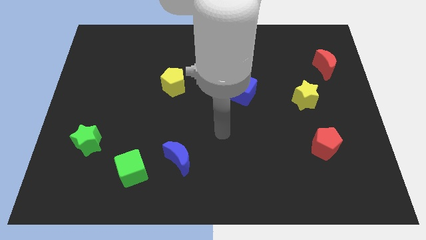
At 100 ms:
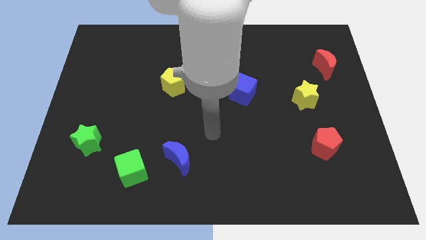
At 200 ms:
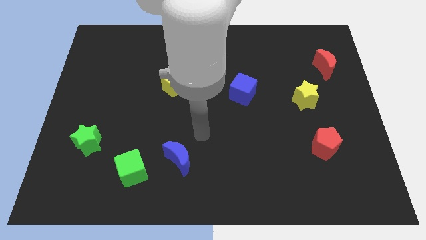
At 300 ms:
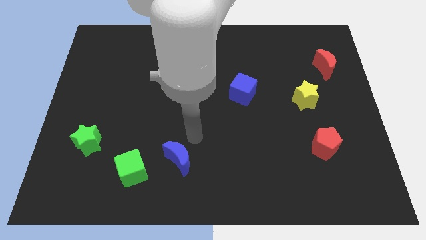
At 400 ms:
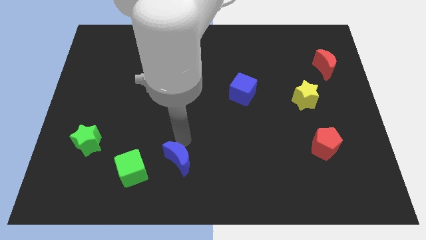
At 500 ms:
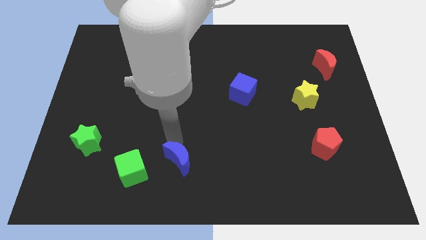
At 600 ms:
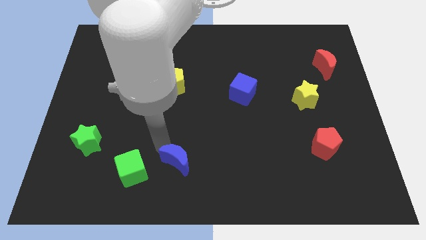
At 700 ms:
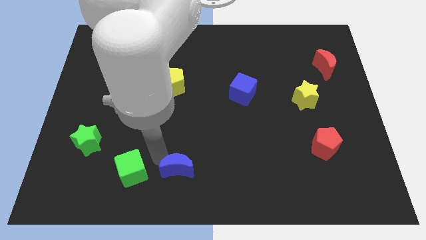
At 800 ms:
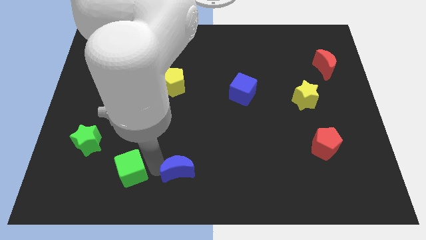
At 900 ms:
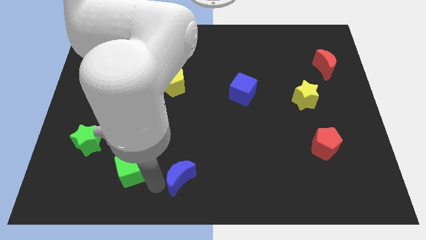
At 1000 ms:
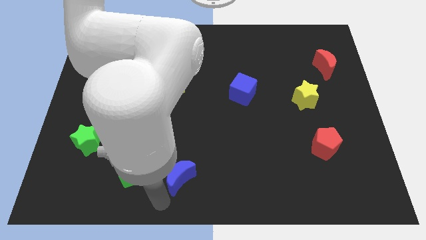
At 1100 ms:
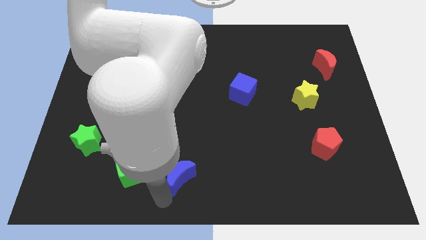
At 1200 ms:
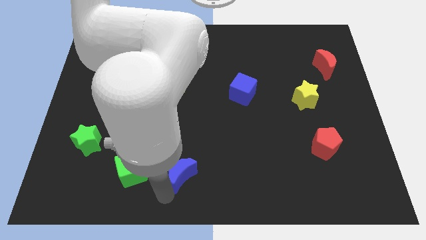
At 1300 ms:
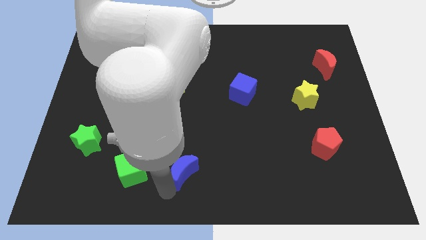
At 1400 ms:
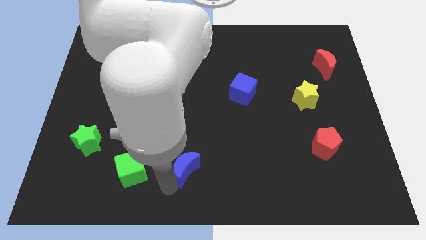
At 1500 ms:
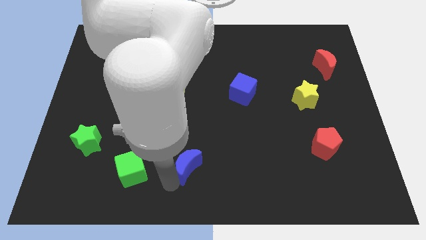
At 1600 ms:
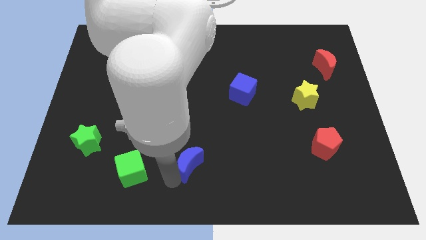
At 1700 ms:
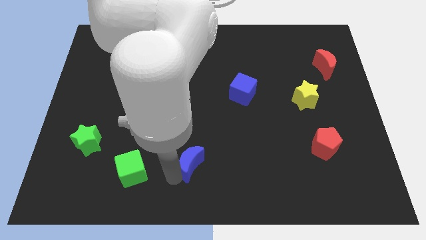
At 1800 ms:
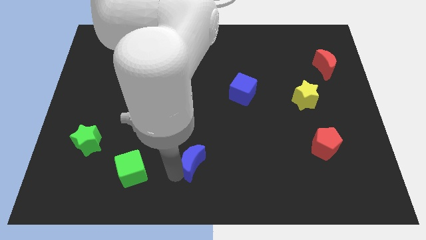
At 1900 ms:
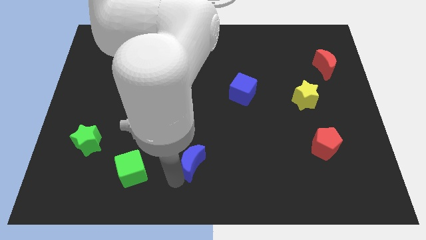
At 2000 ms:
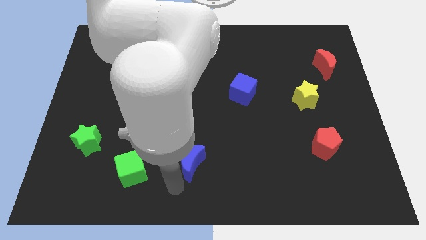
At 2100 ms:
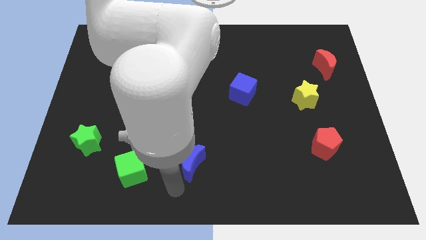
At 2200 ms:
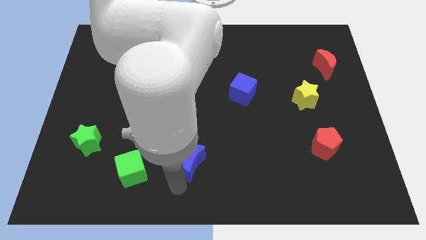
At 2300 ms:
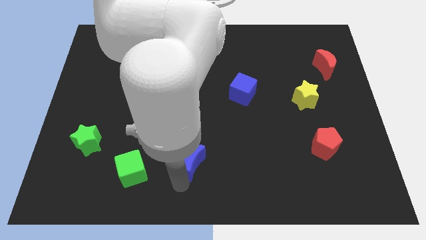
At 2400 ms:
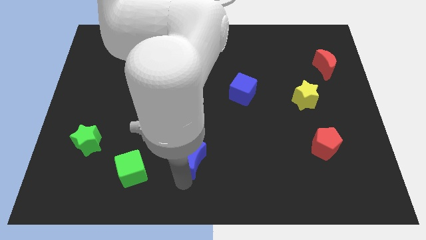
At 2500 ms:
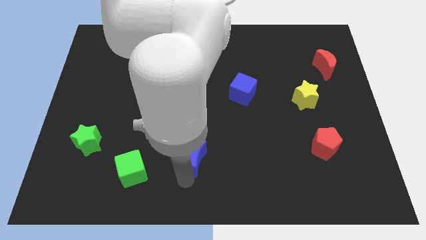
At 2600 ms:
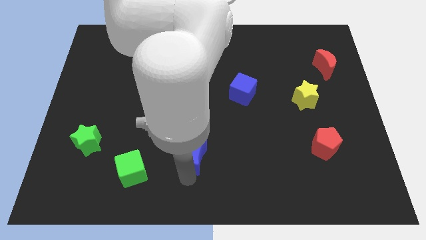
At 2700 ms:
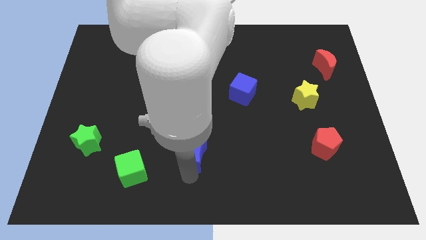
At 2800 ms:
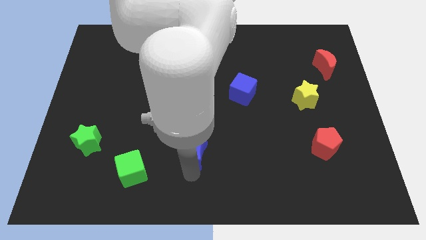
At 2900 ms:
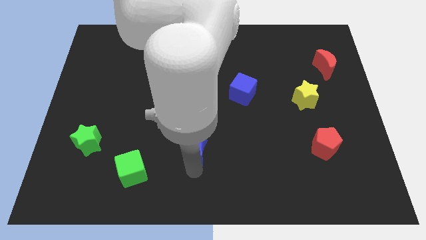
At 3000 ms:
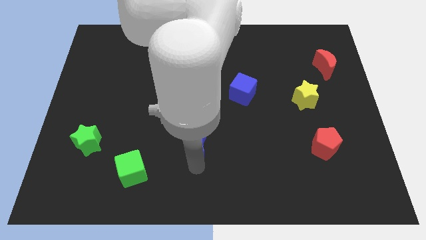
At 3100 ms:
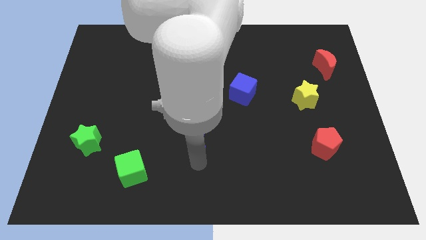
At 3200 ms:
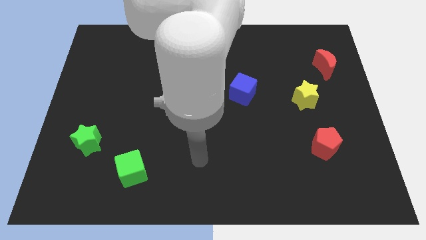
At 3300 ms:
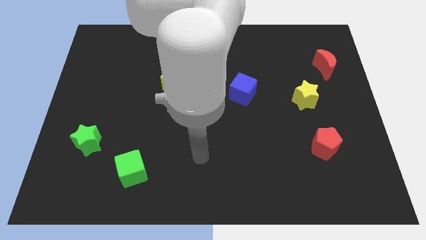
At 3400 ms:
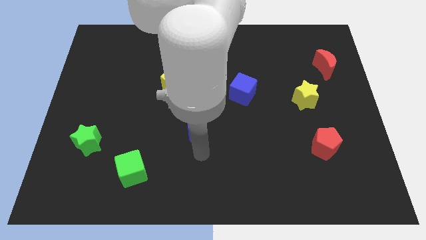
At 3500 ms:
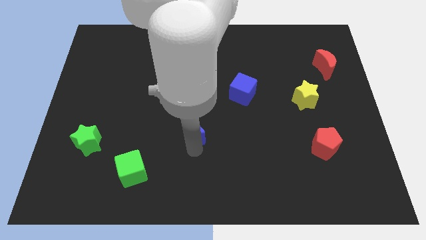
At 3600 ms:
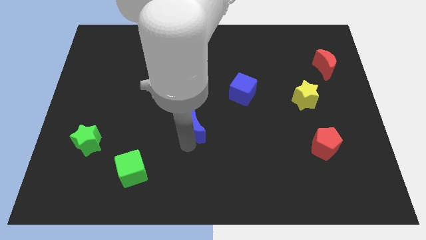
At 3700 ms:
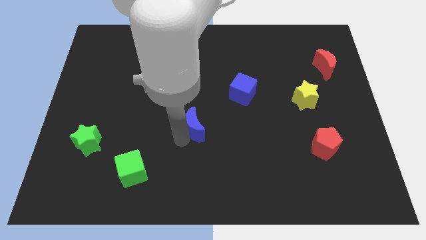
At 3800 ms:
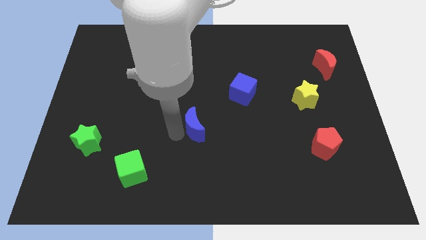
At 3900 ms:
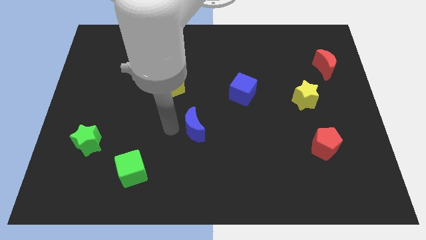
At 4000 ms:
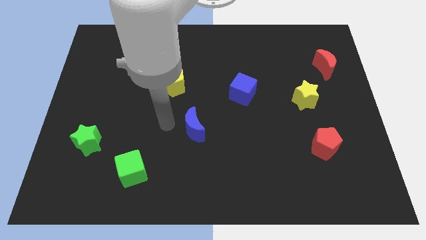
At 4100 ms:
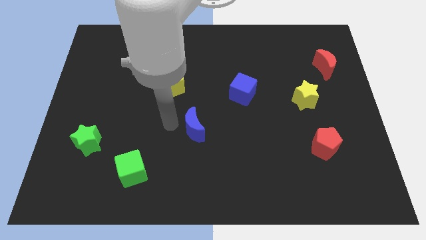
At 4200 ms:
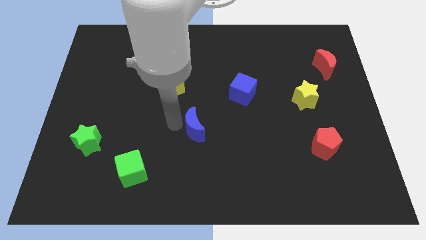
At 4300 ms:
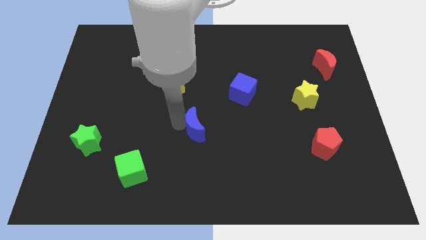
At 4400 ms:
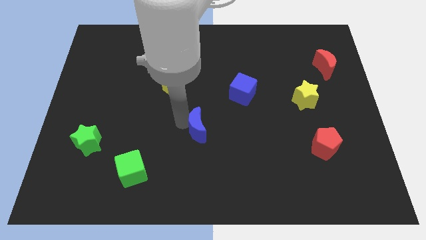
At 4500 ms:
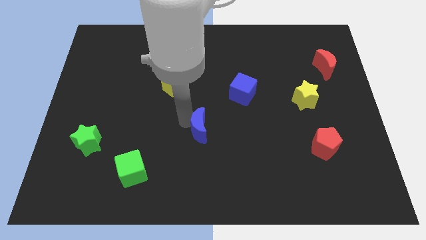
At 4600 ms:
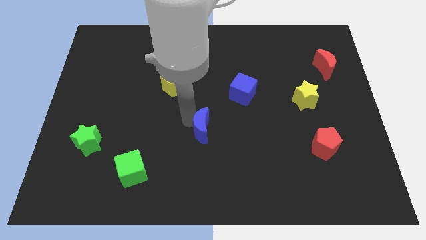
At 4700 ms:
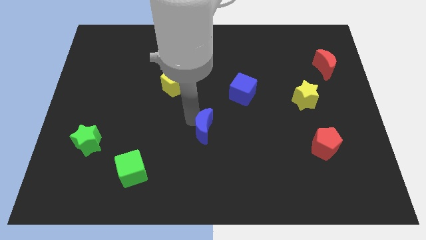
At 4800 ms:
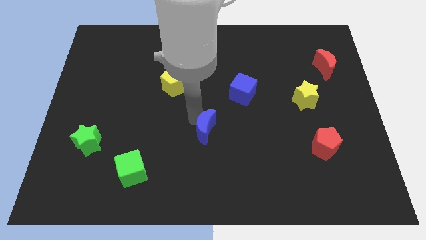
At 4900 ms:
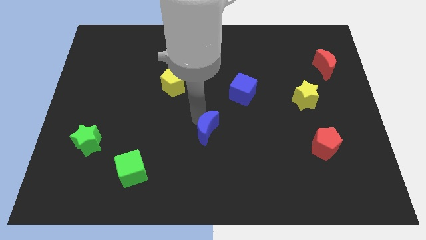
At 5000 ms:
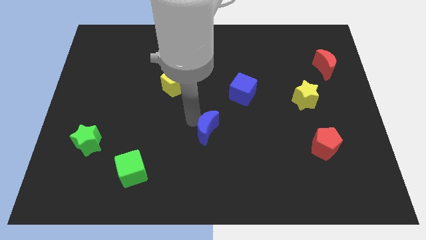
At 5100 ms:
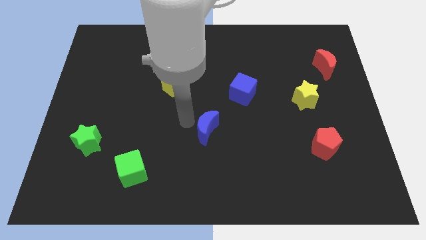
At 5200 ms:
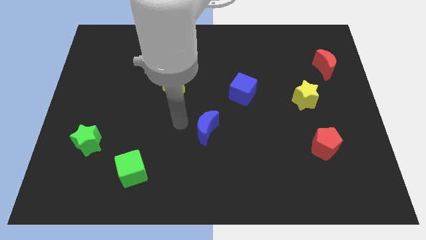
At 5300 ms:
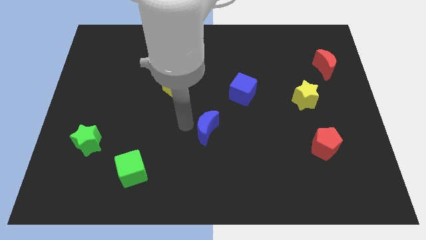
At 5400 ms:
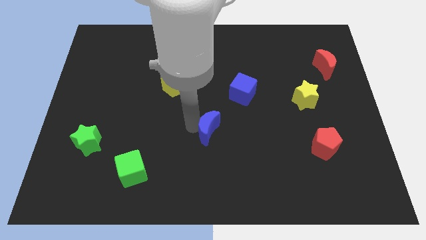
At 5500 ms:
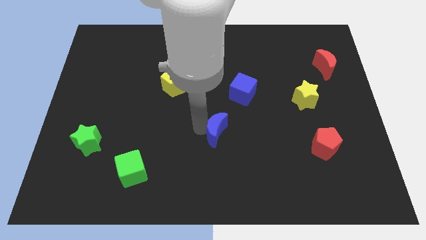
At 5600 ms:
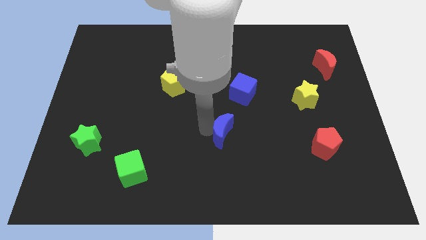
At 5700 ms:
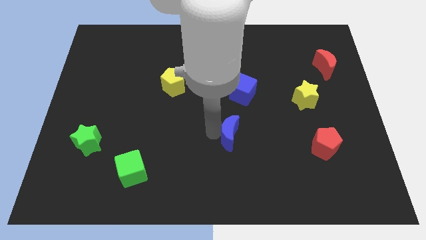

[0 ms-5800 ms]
move the blue moon to the bottom of the blue cube

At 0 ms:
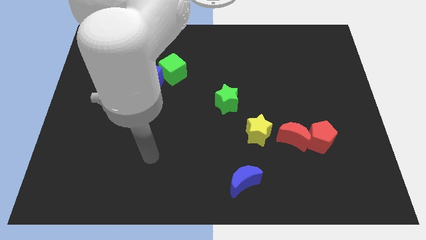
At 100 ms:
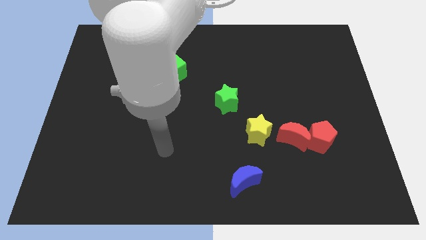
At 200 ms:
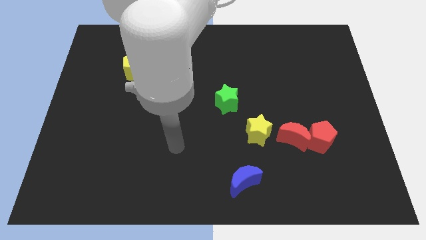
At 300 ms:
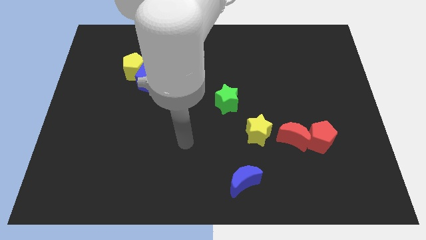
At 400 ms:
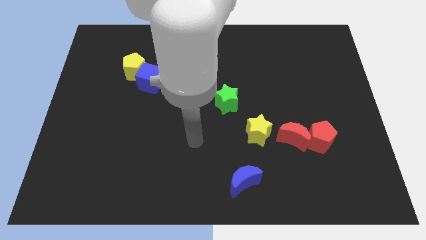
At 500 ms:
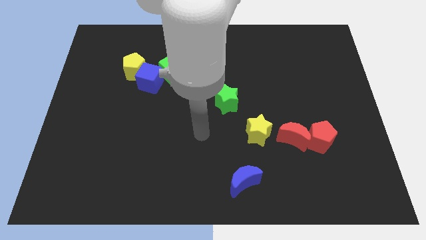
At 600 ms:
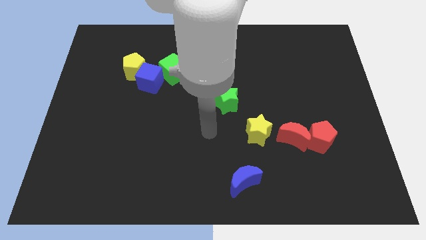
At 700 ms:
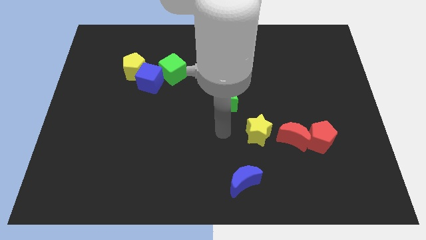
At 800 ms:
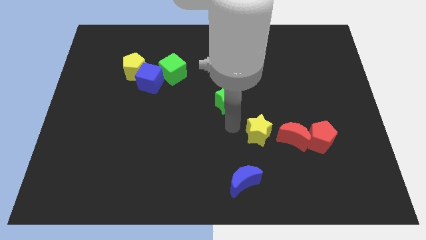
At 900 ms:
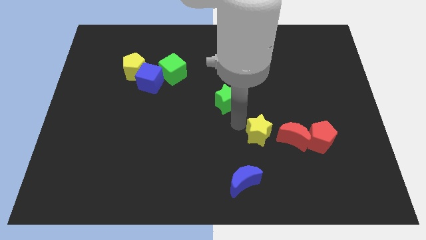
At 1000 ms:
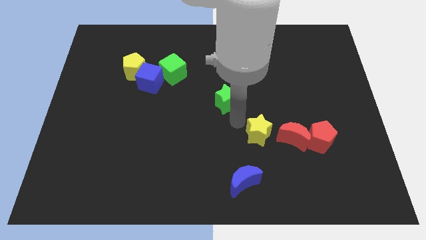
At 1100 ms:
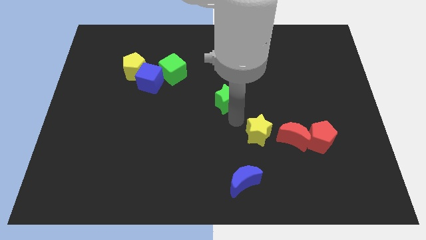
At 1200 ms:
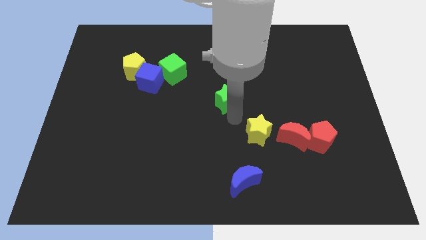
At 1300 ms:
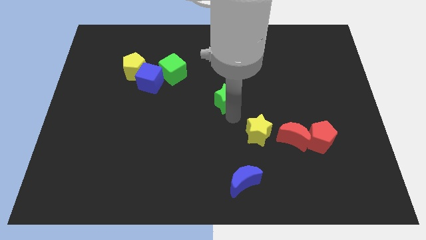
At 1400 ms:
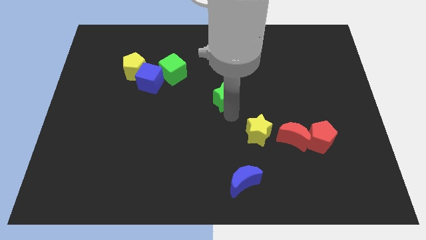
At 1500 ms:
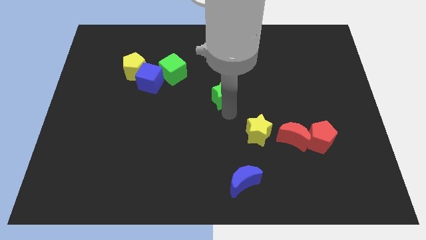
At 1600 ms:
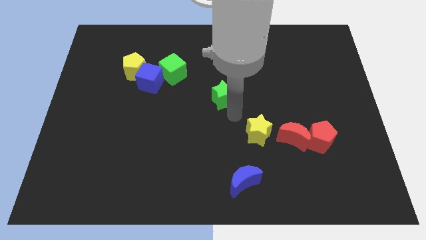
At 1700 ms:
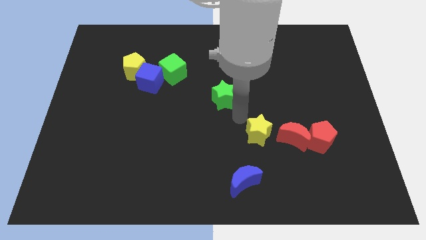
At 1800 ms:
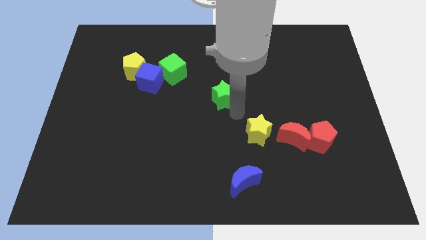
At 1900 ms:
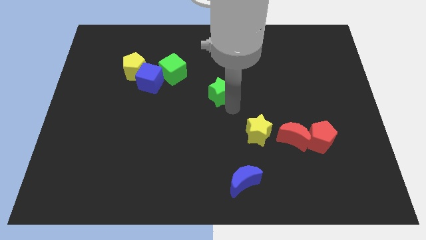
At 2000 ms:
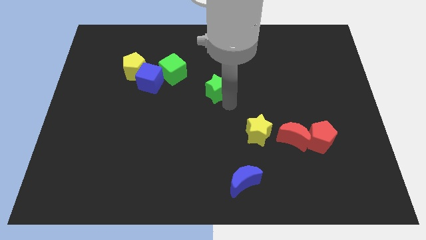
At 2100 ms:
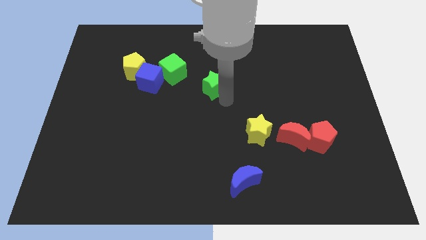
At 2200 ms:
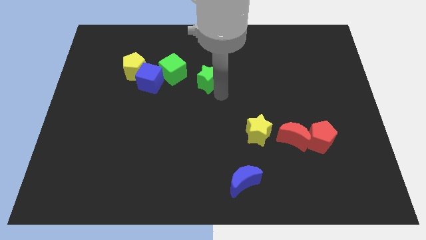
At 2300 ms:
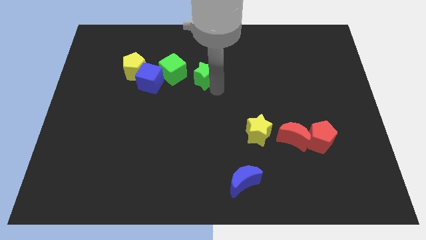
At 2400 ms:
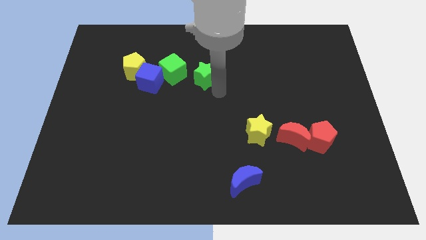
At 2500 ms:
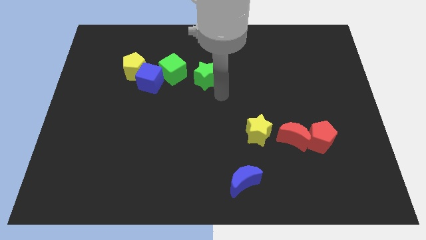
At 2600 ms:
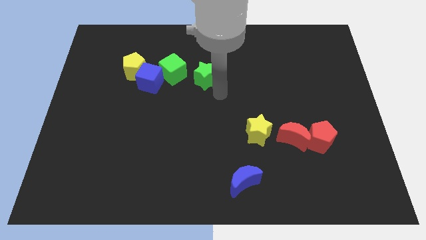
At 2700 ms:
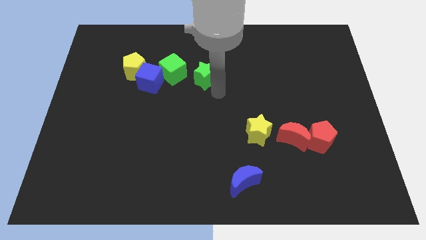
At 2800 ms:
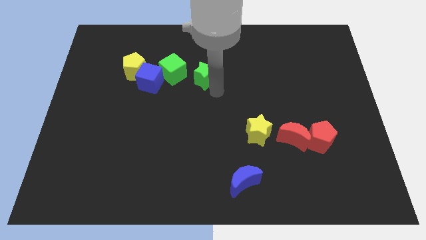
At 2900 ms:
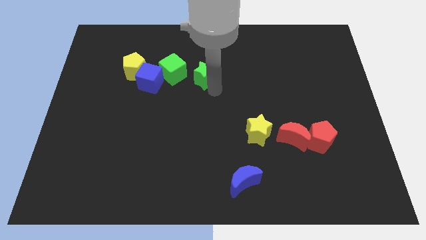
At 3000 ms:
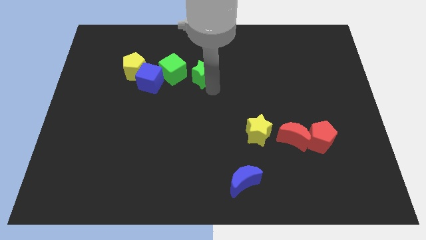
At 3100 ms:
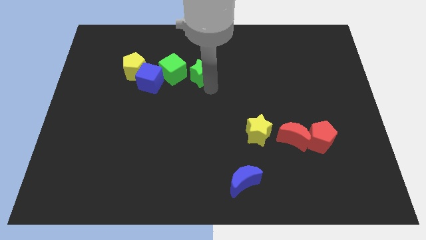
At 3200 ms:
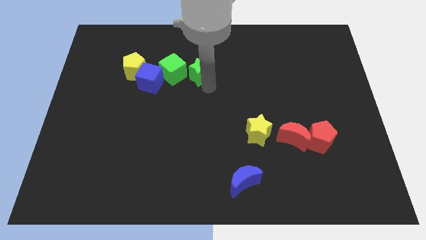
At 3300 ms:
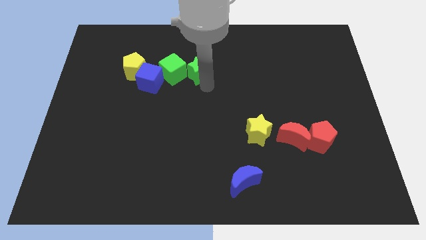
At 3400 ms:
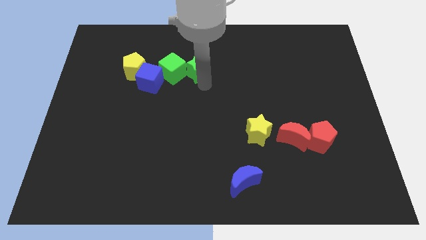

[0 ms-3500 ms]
slide the green star right of the yellow pentagon
